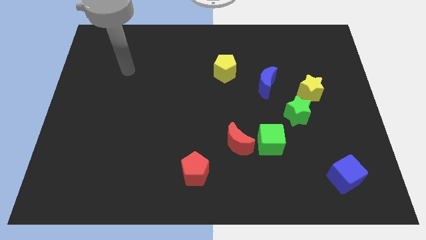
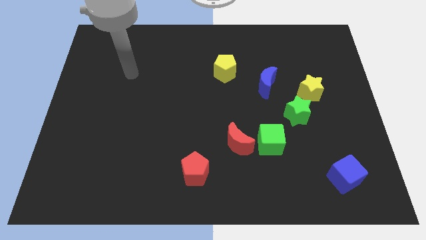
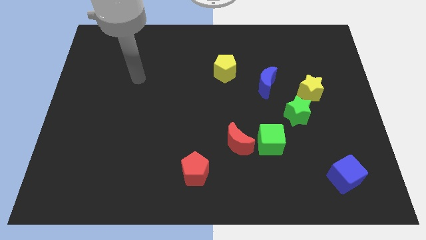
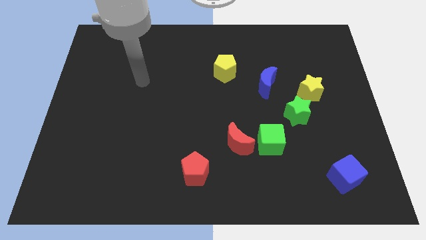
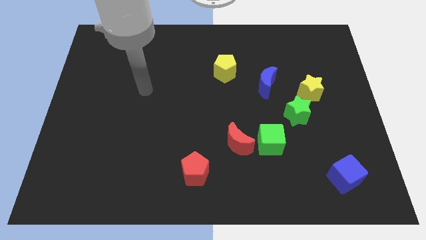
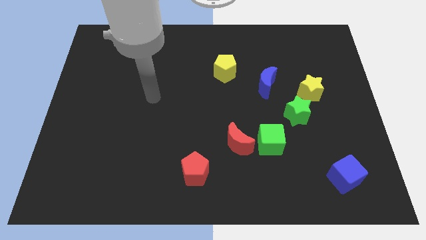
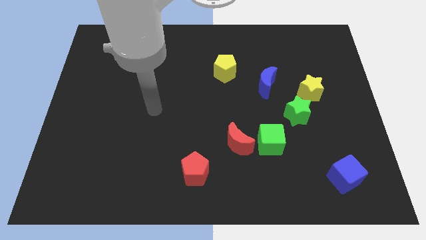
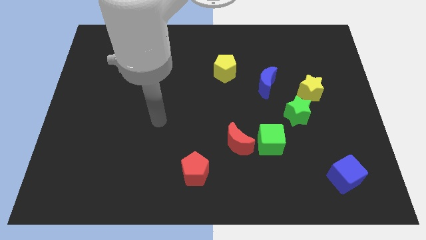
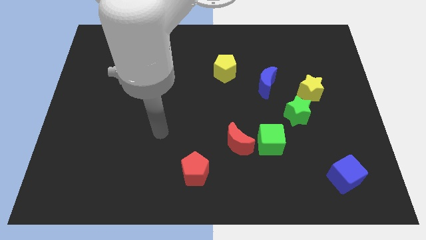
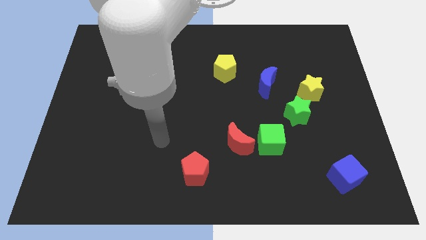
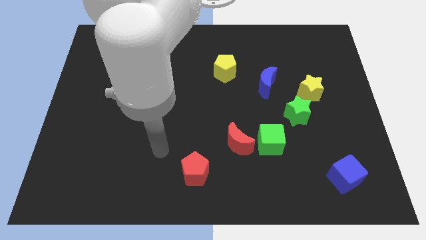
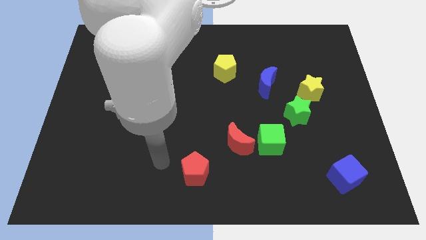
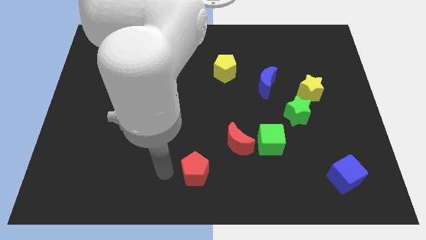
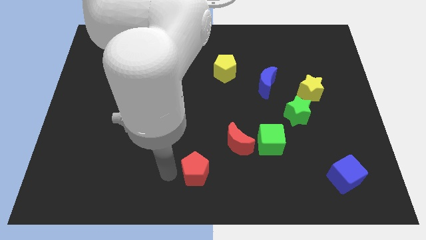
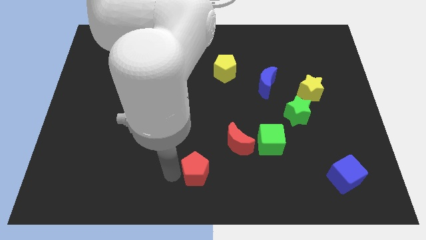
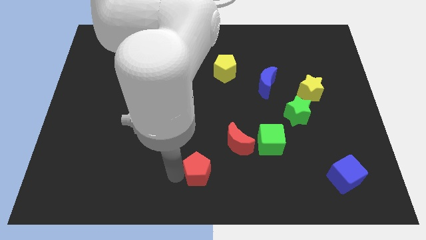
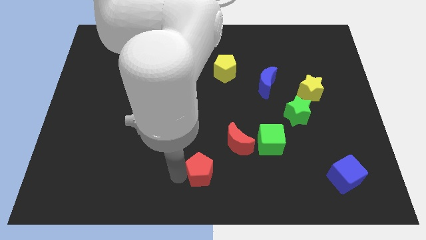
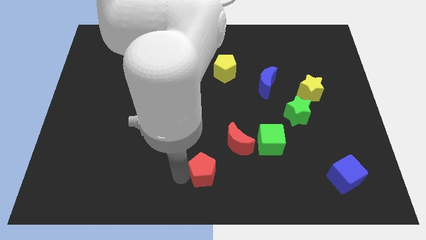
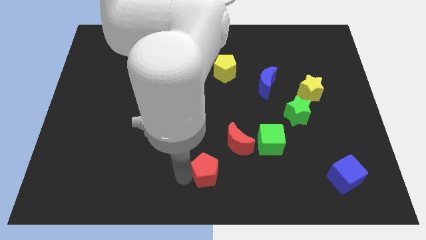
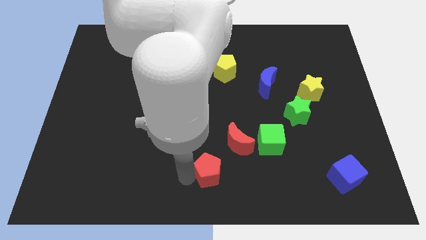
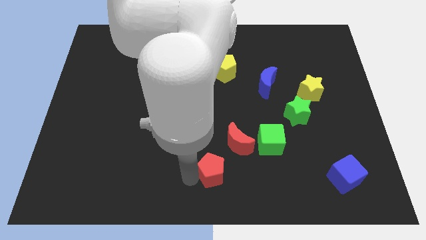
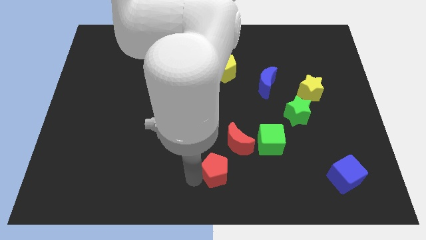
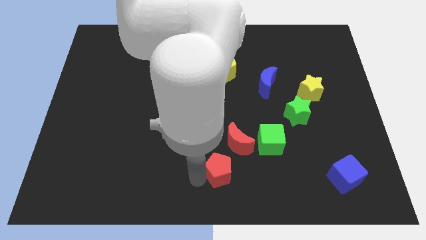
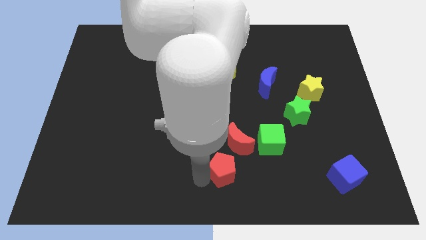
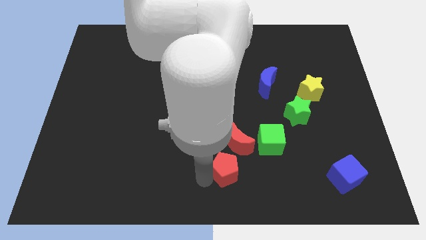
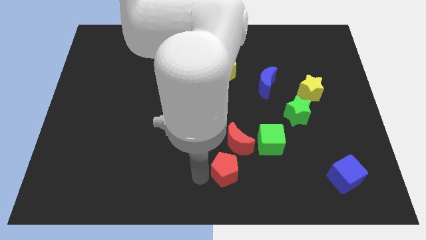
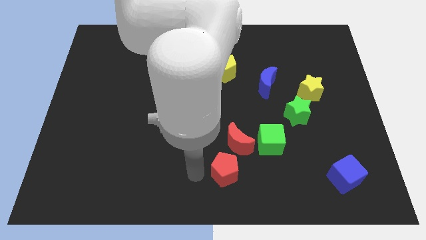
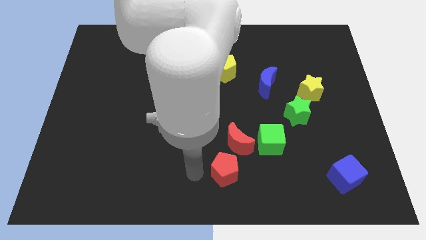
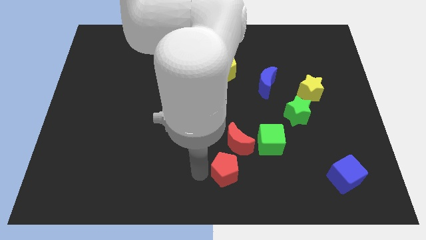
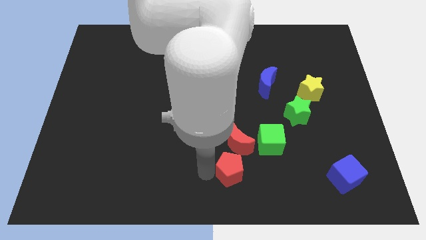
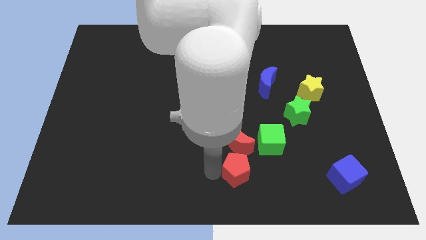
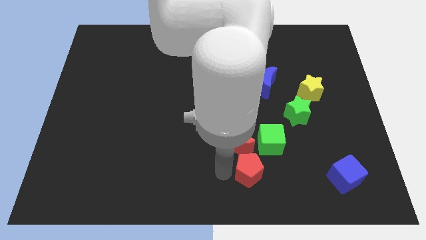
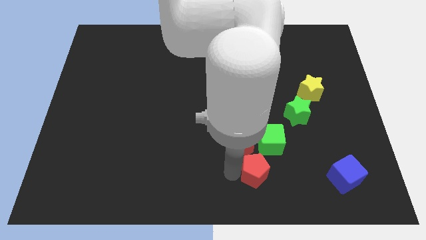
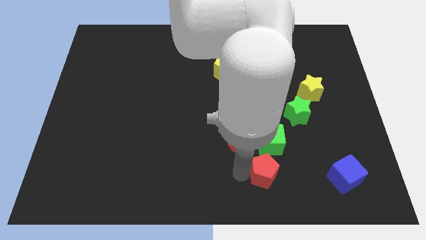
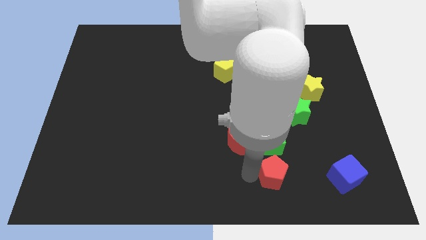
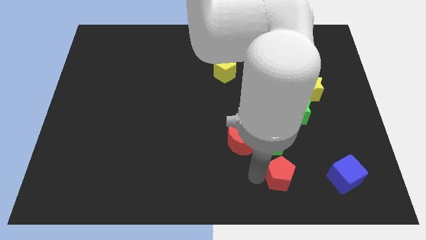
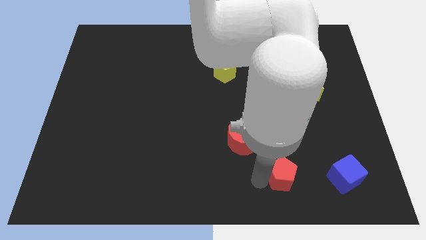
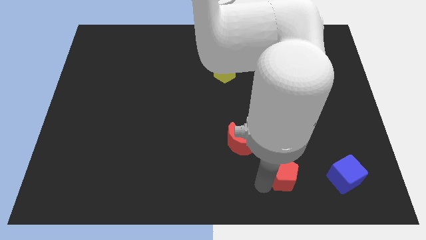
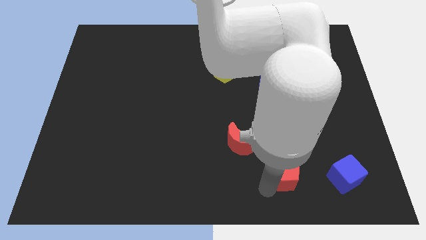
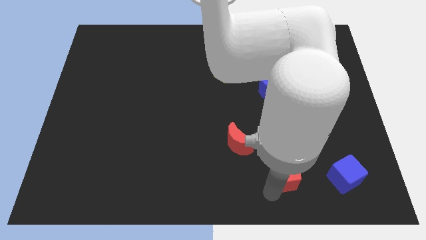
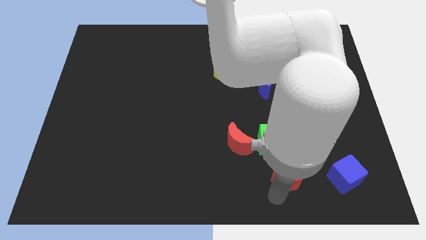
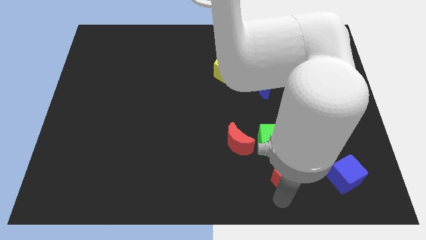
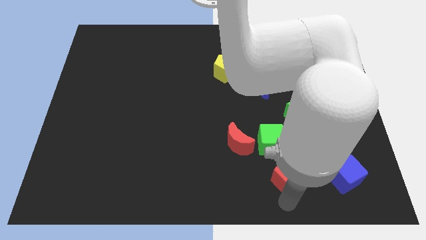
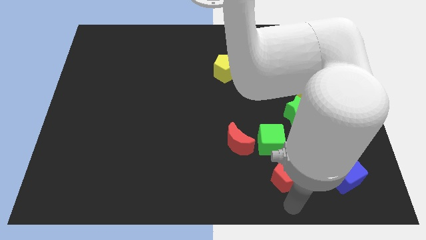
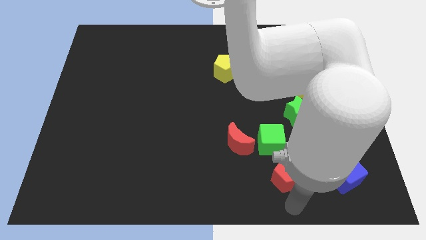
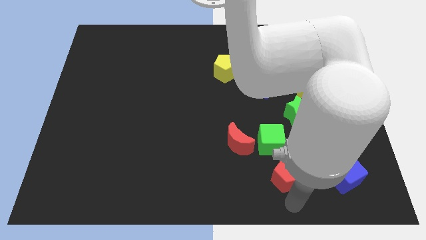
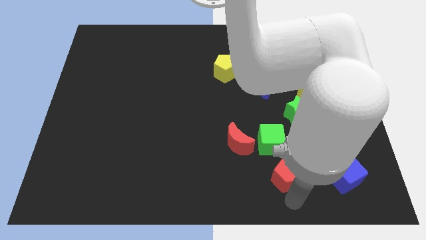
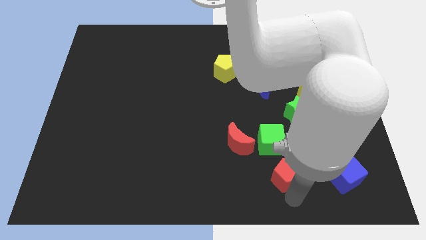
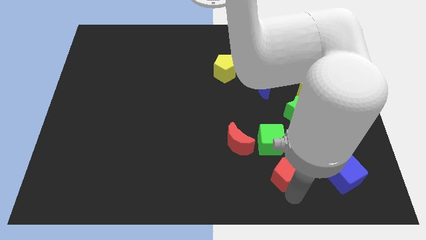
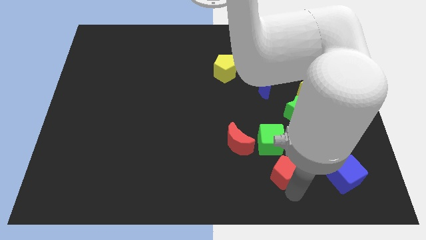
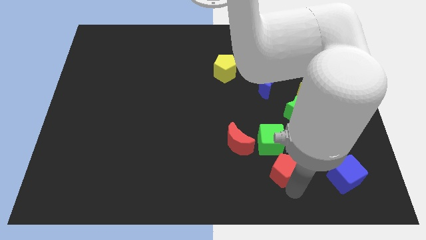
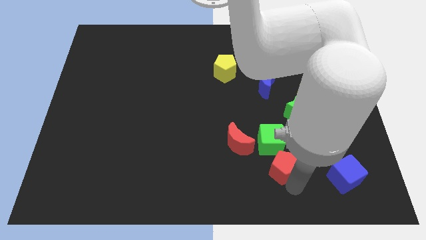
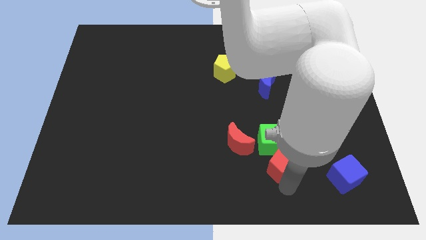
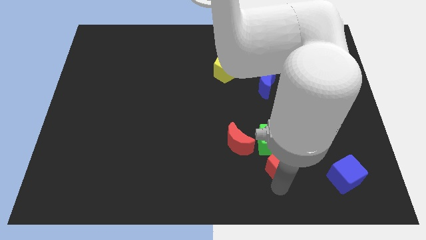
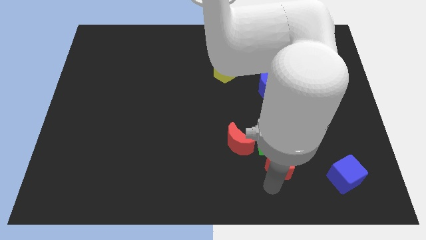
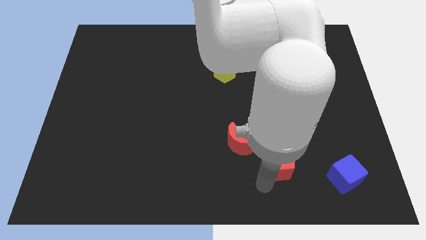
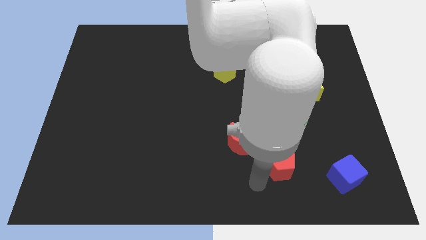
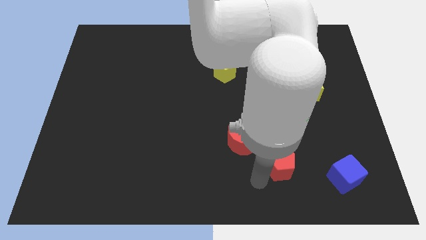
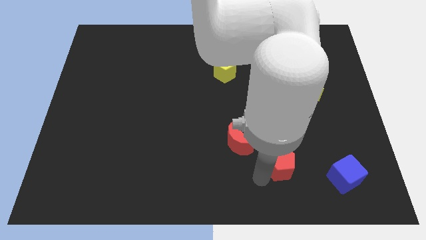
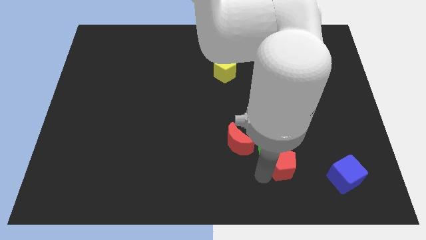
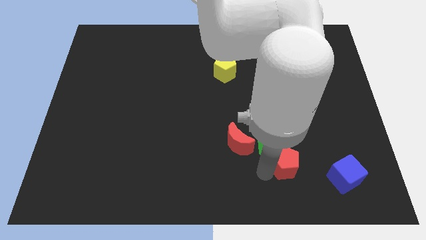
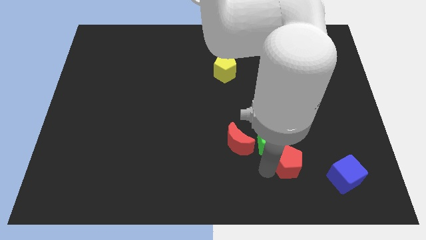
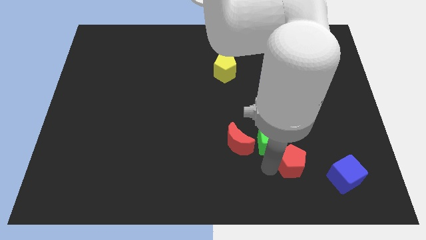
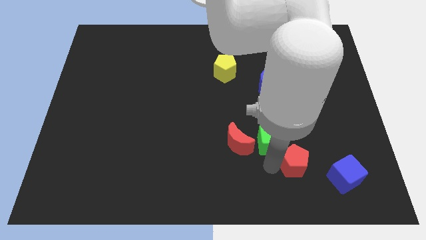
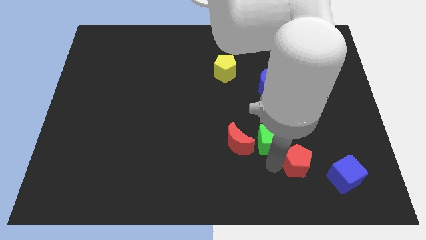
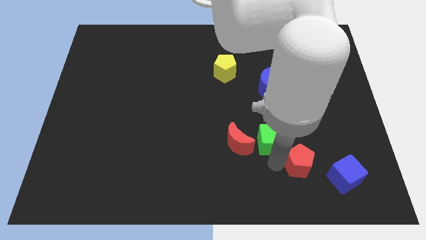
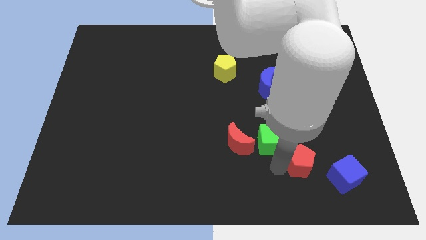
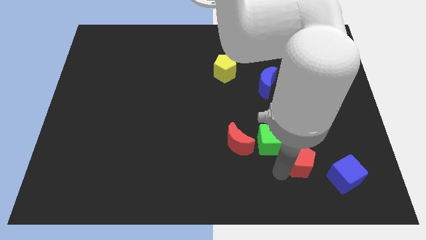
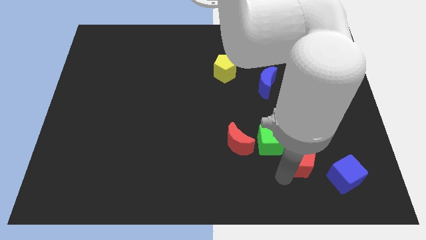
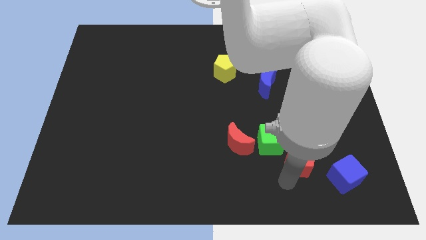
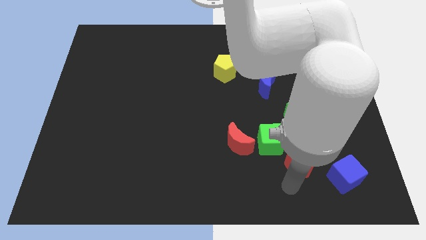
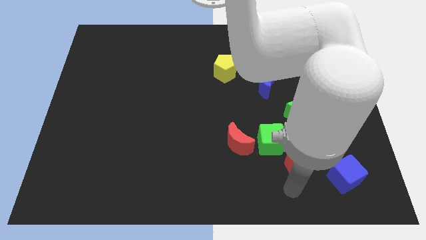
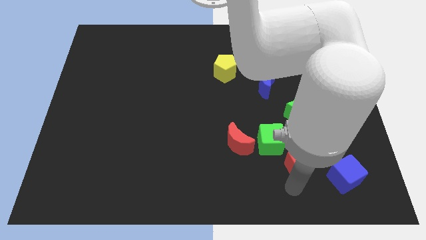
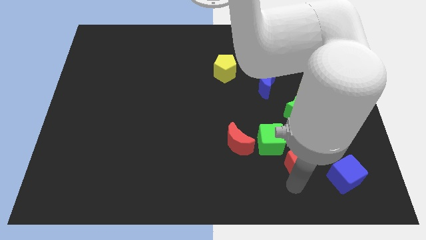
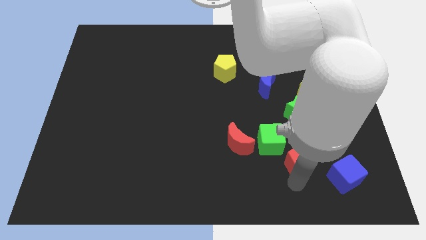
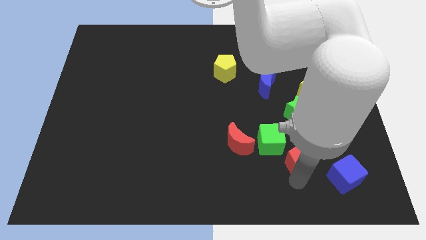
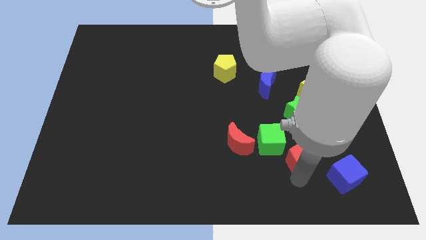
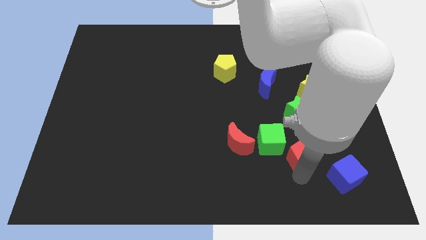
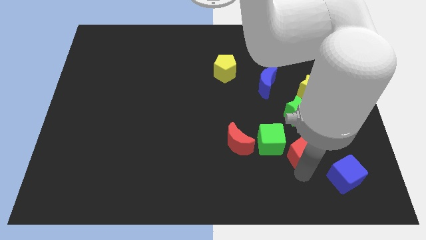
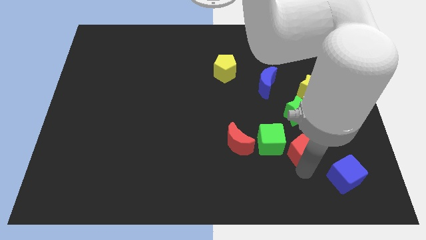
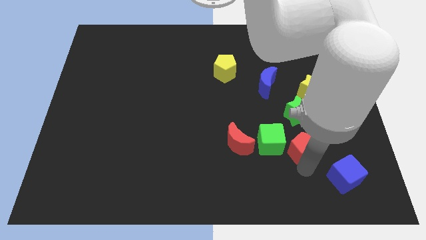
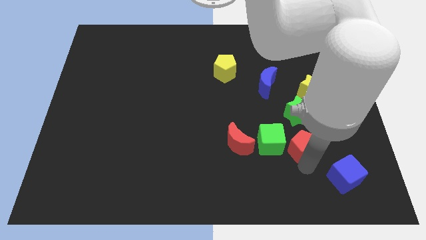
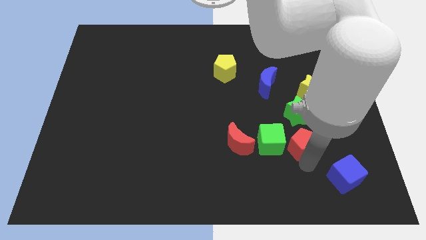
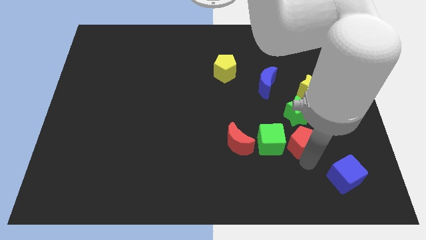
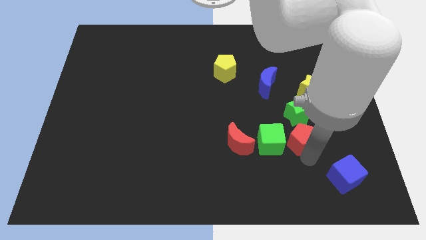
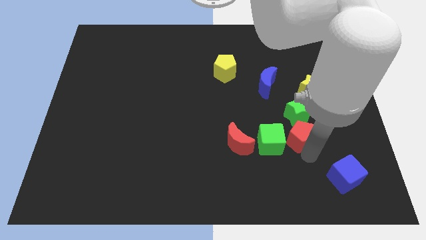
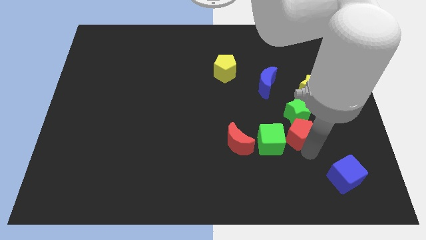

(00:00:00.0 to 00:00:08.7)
put the red pentagon towards the green star
